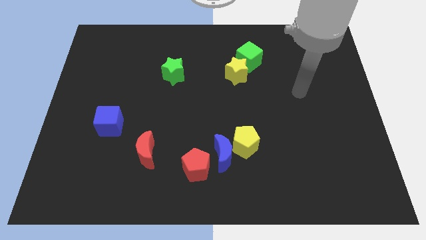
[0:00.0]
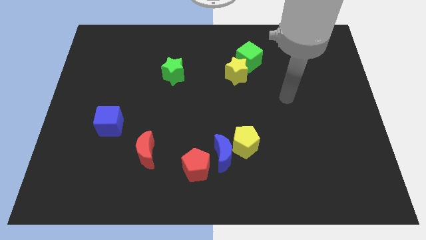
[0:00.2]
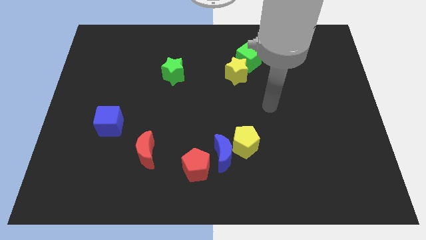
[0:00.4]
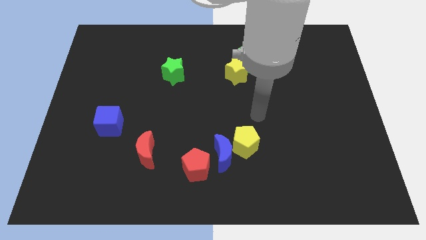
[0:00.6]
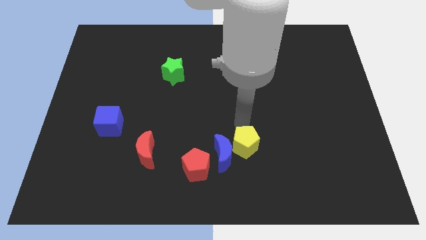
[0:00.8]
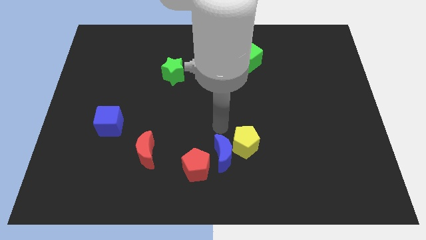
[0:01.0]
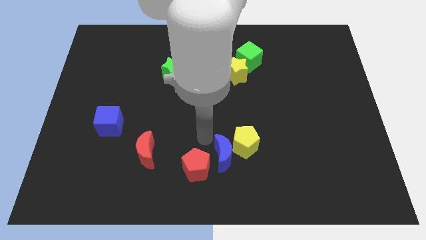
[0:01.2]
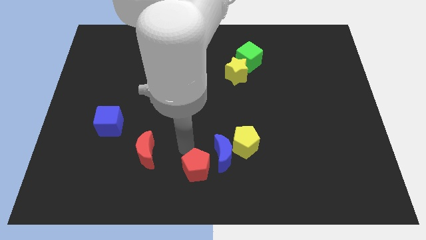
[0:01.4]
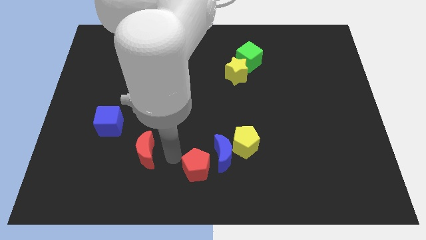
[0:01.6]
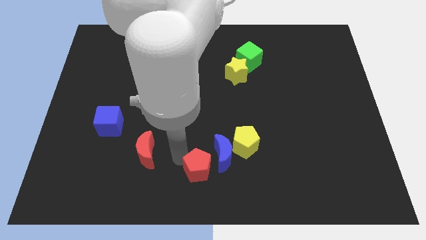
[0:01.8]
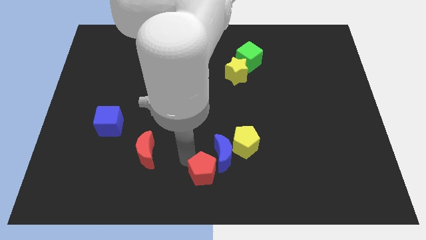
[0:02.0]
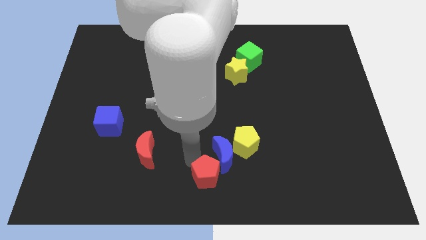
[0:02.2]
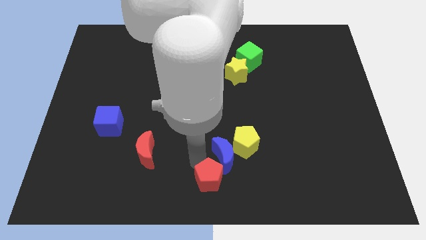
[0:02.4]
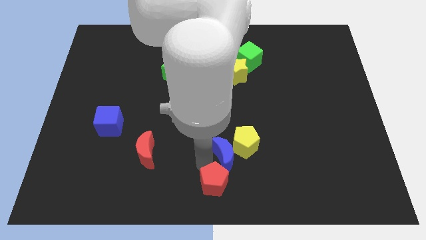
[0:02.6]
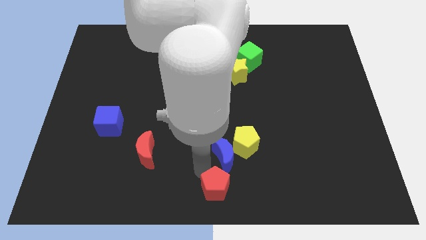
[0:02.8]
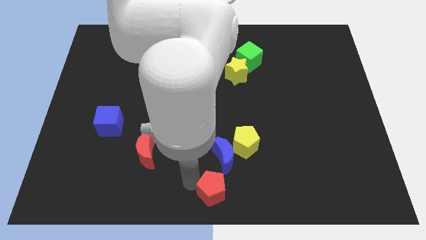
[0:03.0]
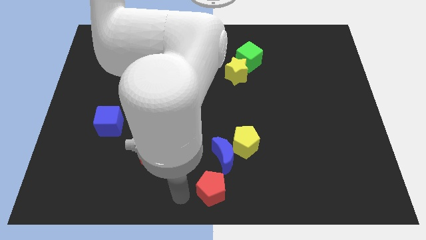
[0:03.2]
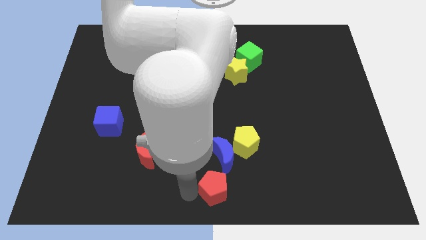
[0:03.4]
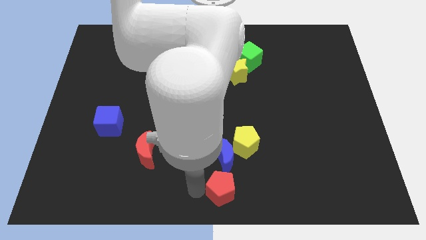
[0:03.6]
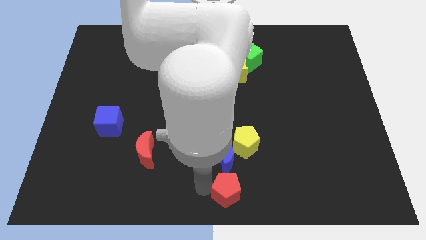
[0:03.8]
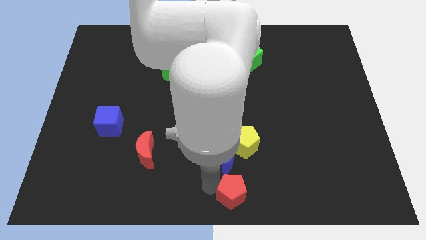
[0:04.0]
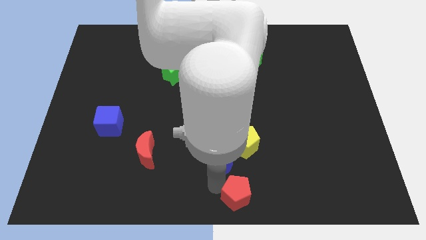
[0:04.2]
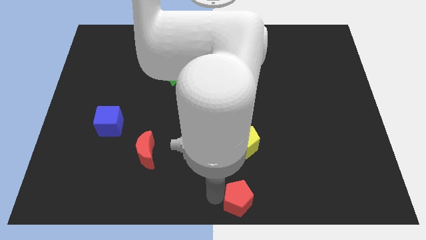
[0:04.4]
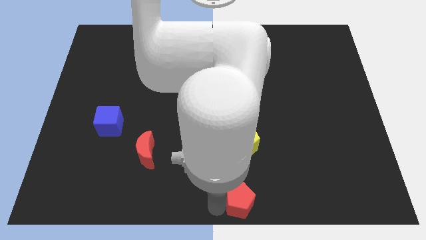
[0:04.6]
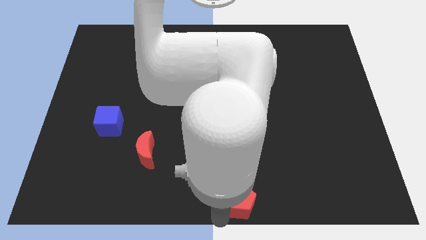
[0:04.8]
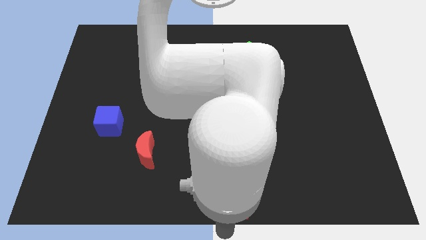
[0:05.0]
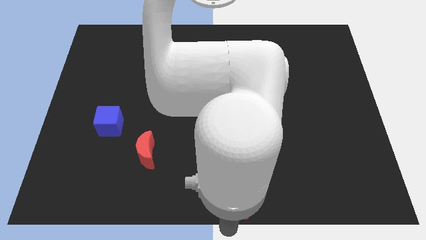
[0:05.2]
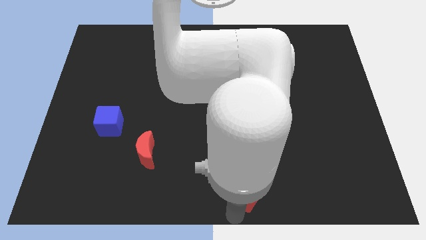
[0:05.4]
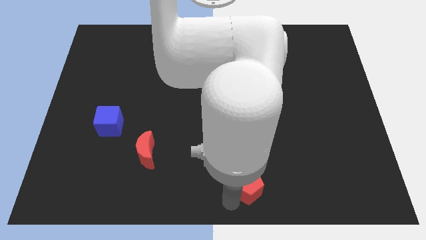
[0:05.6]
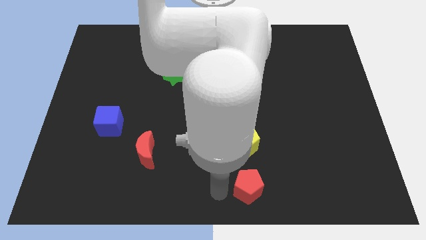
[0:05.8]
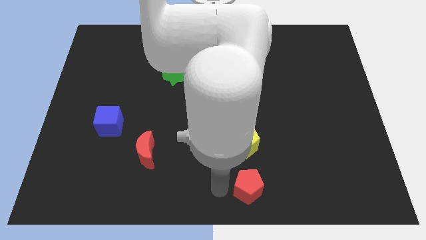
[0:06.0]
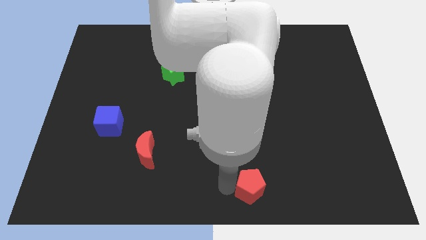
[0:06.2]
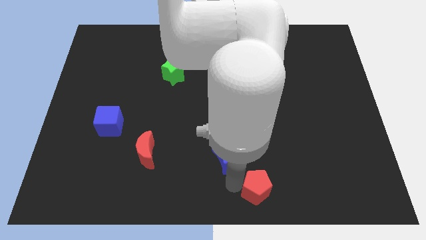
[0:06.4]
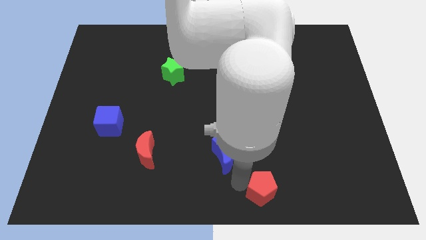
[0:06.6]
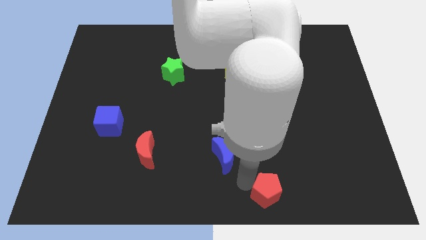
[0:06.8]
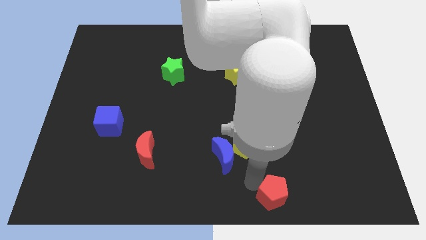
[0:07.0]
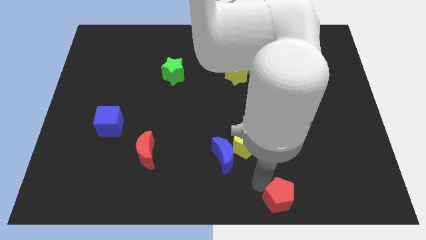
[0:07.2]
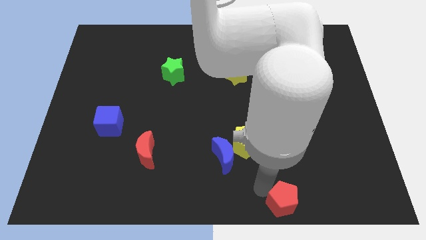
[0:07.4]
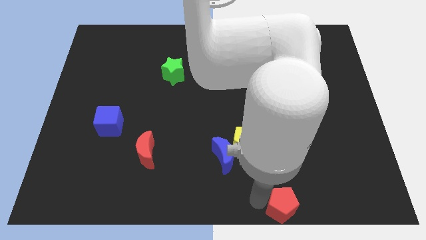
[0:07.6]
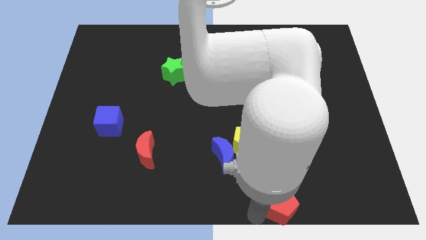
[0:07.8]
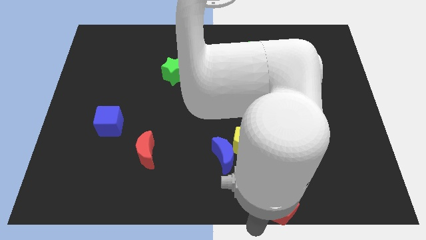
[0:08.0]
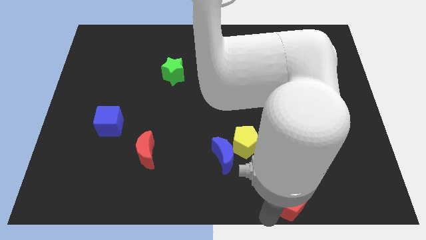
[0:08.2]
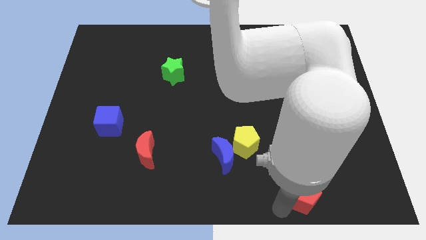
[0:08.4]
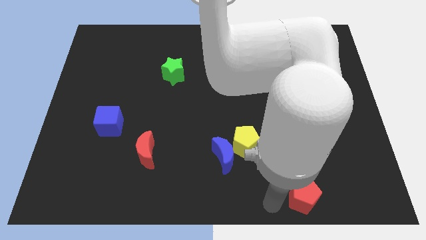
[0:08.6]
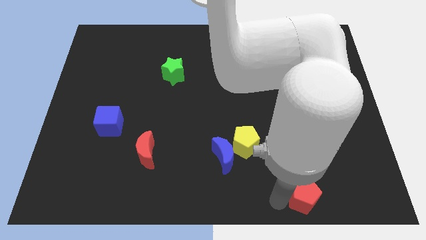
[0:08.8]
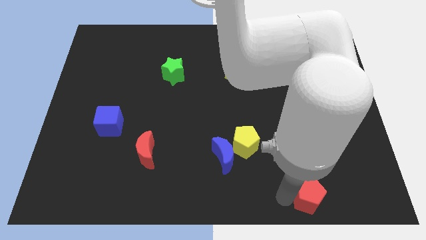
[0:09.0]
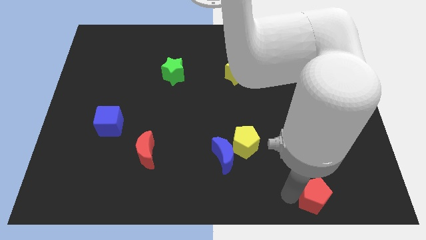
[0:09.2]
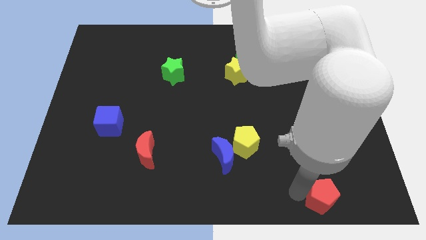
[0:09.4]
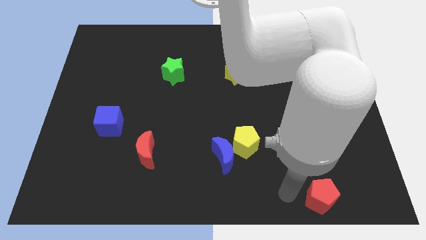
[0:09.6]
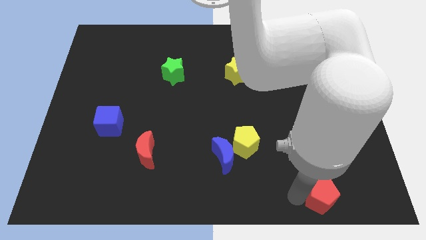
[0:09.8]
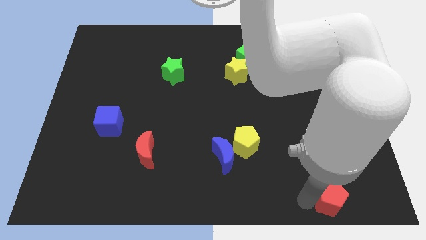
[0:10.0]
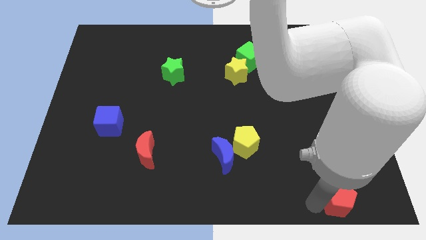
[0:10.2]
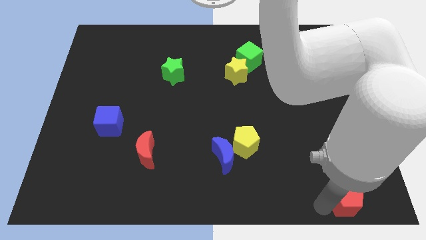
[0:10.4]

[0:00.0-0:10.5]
slide the red pentagon to the bottom right corner

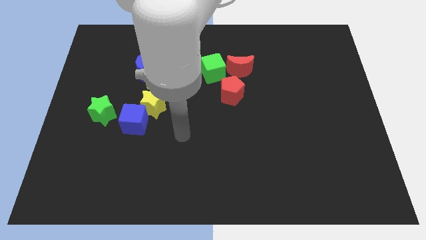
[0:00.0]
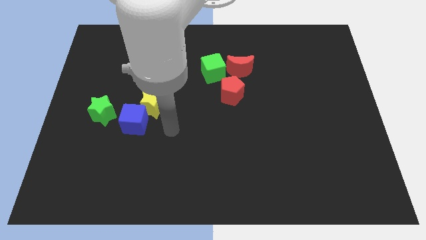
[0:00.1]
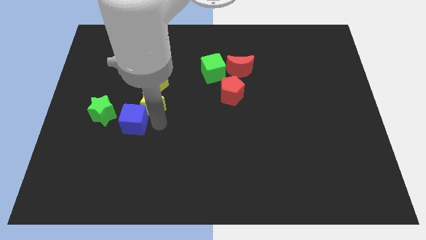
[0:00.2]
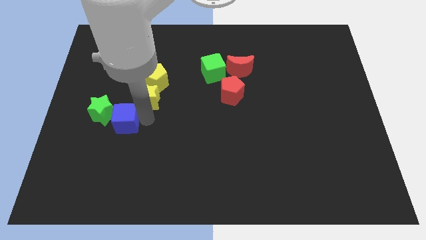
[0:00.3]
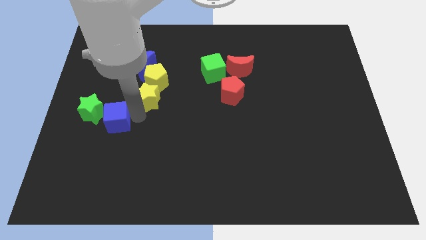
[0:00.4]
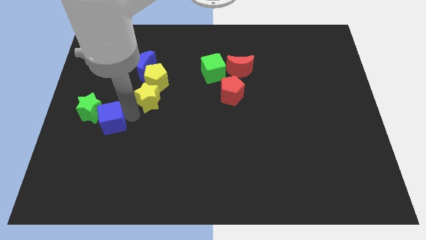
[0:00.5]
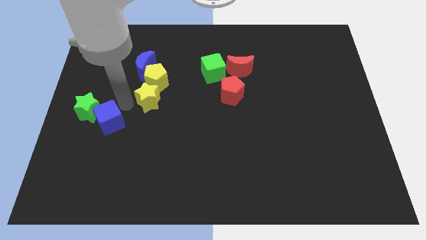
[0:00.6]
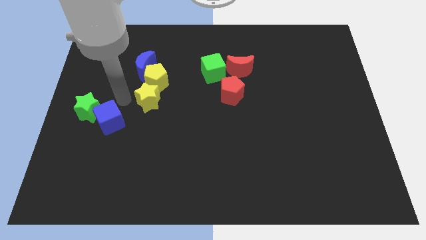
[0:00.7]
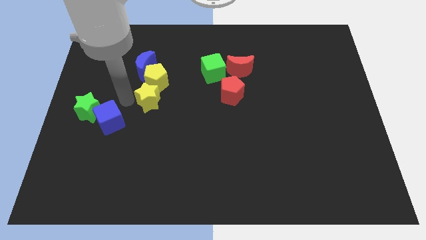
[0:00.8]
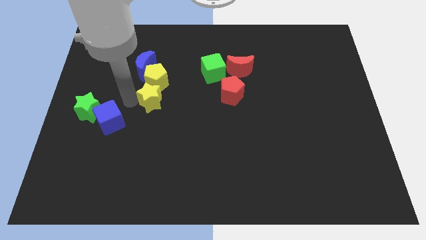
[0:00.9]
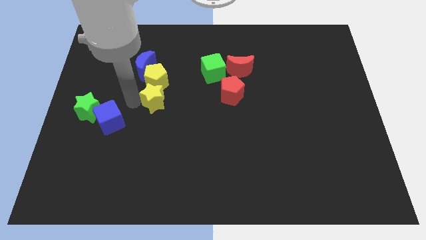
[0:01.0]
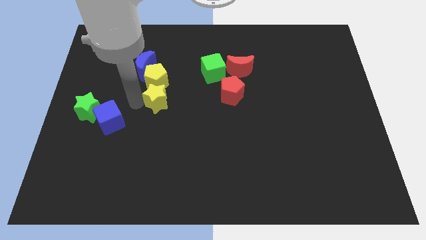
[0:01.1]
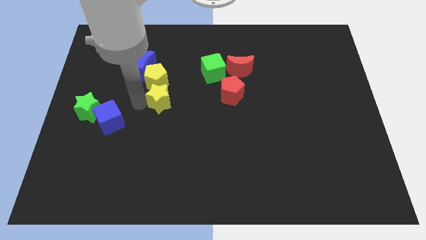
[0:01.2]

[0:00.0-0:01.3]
push the yellow star to the center of the board
